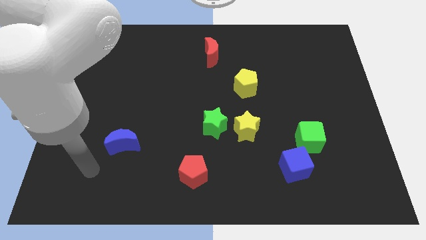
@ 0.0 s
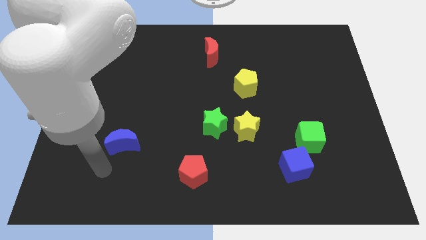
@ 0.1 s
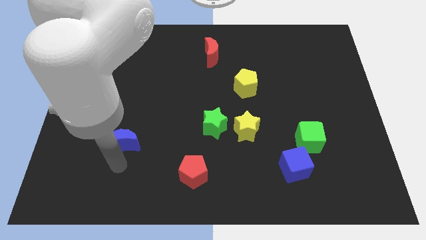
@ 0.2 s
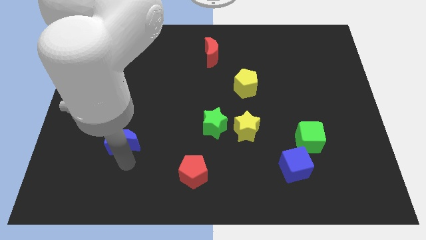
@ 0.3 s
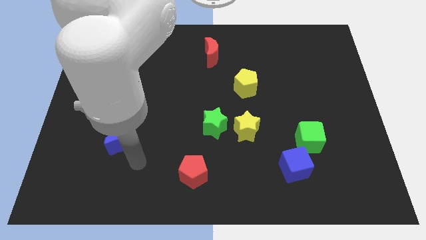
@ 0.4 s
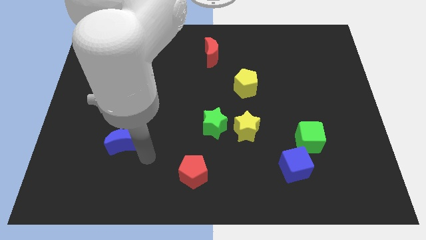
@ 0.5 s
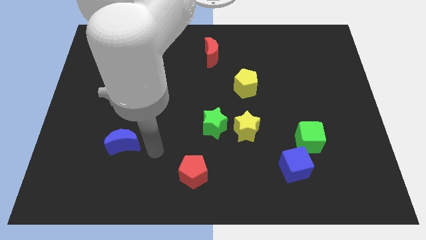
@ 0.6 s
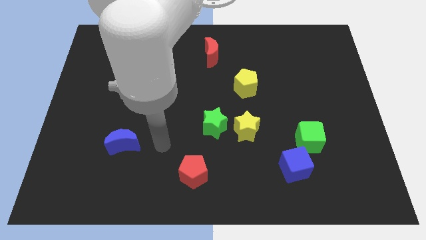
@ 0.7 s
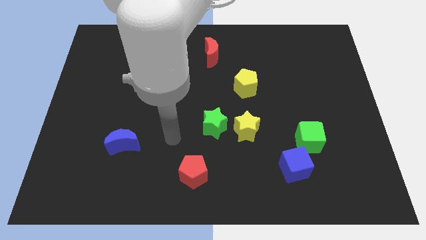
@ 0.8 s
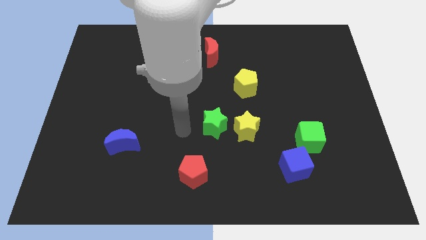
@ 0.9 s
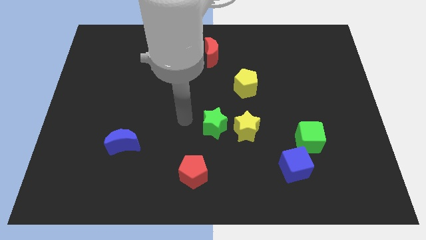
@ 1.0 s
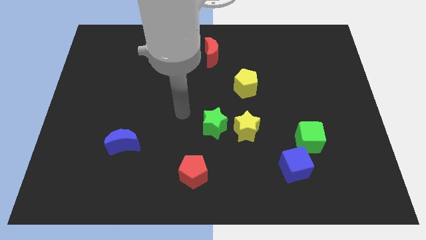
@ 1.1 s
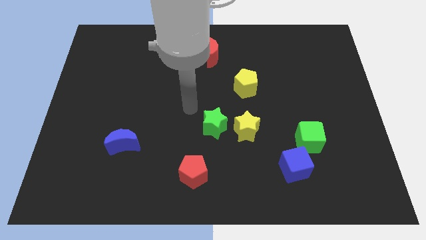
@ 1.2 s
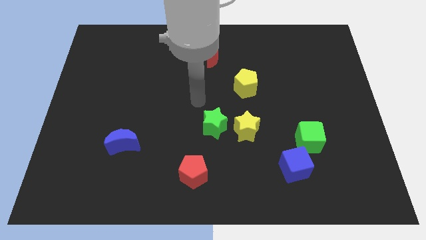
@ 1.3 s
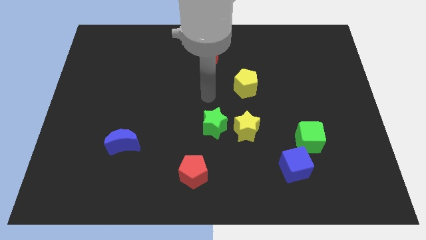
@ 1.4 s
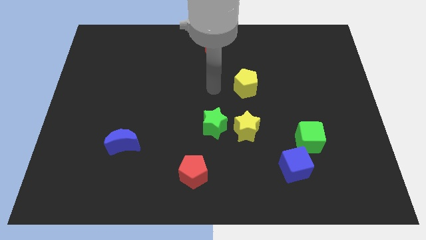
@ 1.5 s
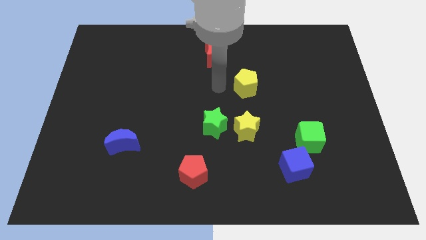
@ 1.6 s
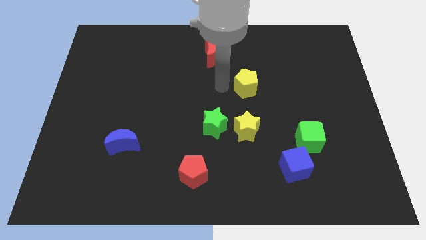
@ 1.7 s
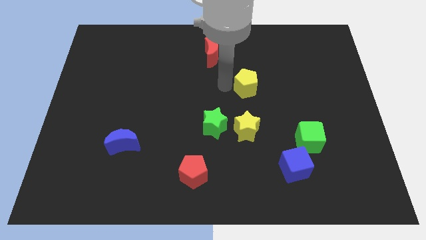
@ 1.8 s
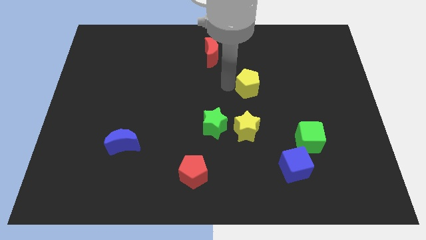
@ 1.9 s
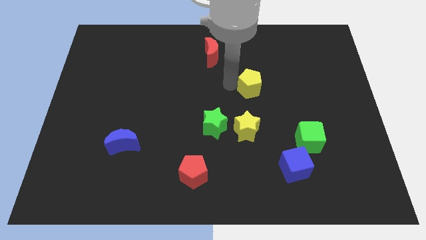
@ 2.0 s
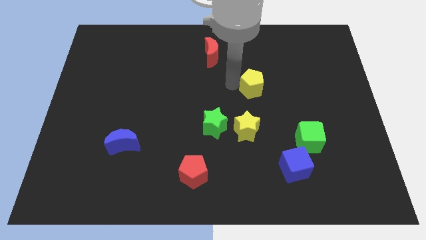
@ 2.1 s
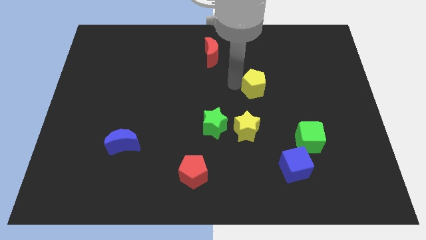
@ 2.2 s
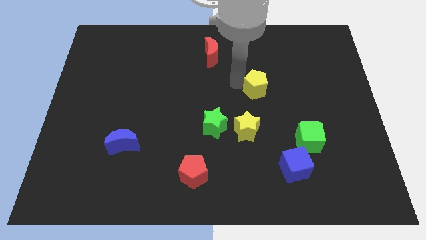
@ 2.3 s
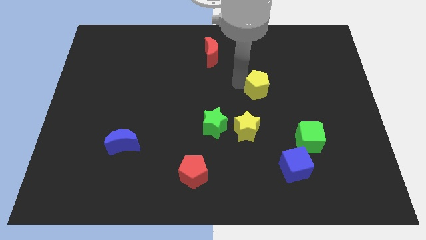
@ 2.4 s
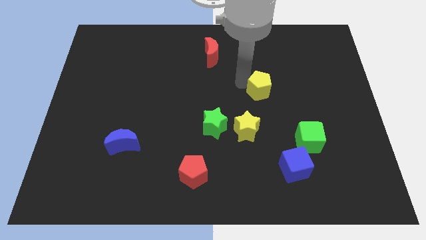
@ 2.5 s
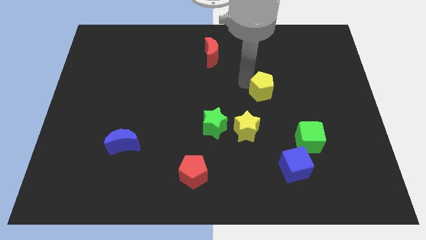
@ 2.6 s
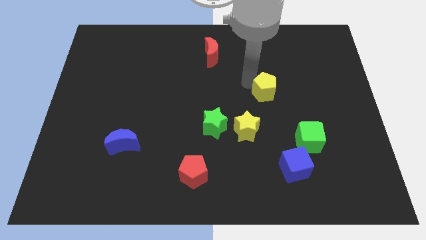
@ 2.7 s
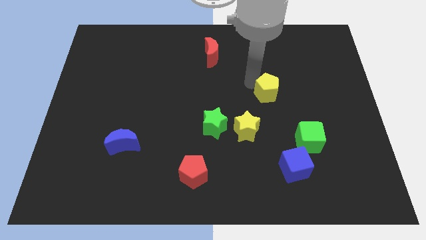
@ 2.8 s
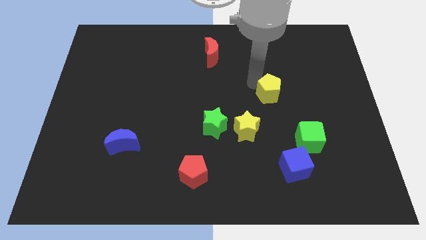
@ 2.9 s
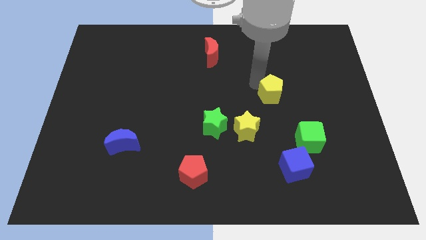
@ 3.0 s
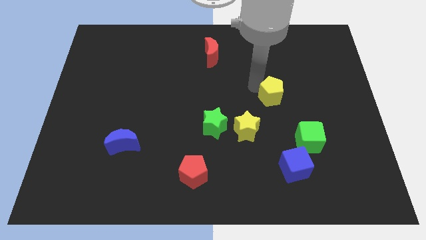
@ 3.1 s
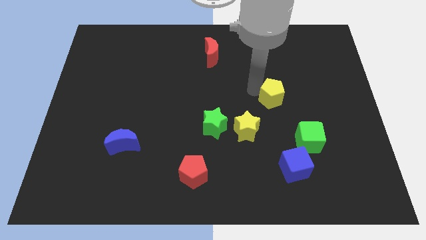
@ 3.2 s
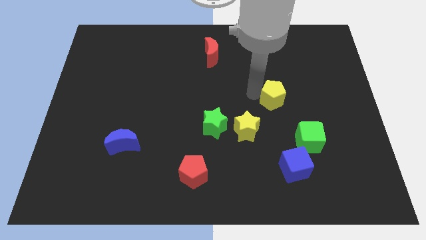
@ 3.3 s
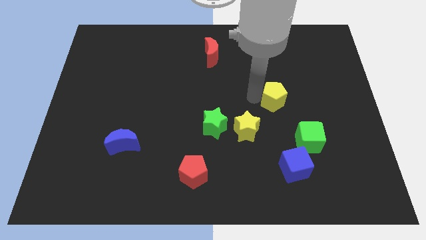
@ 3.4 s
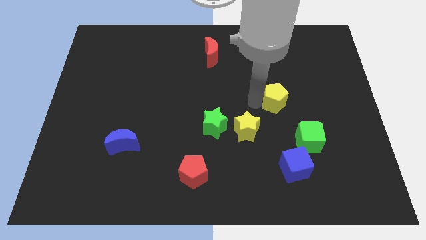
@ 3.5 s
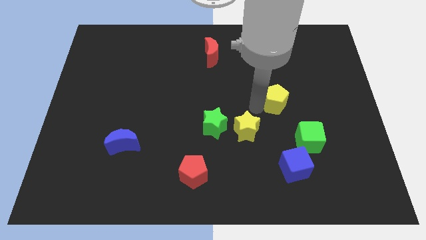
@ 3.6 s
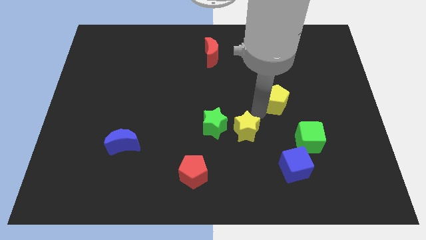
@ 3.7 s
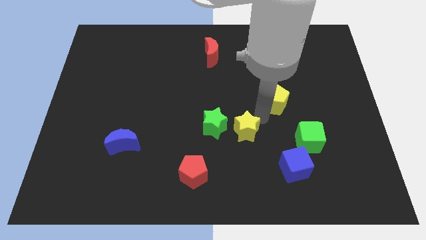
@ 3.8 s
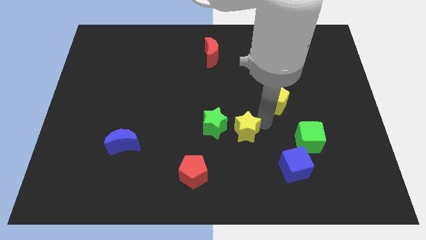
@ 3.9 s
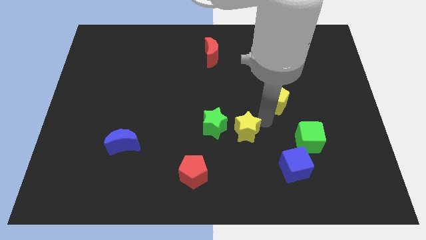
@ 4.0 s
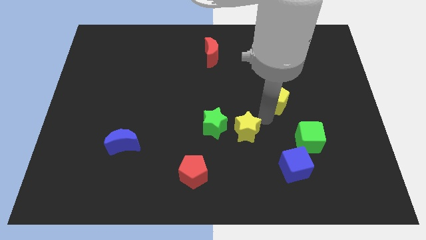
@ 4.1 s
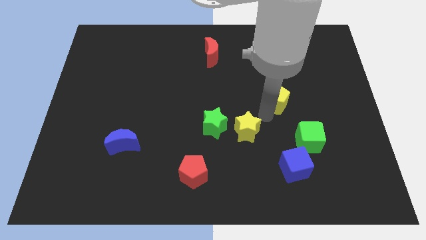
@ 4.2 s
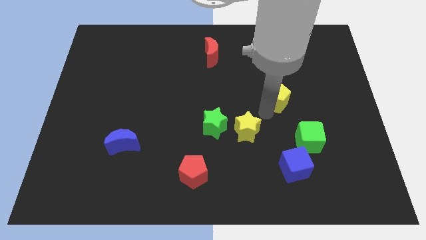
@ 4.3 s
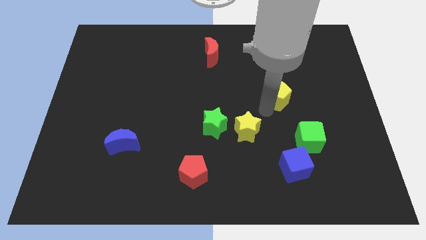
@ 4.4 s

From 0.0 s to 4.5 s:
slightly move the yellow pentagon to the right

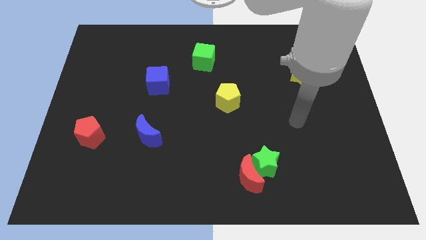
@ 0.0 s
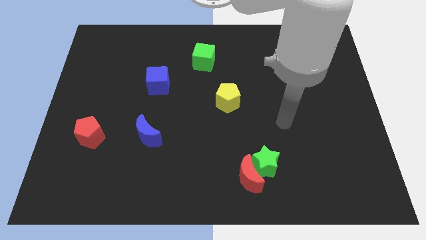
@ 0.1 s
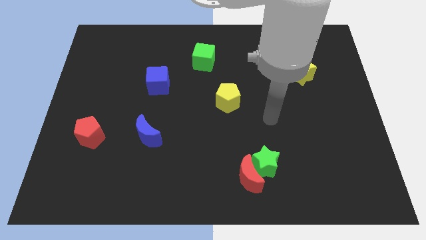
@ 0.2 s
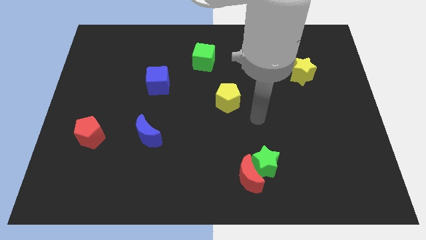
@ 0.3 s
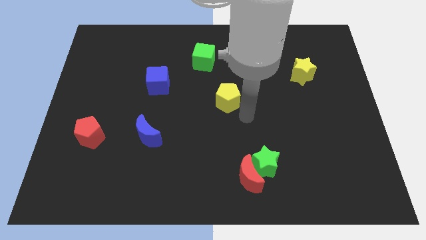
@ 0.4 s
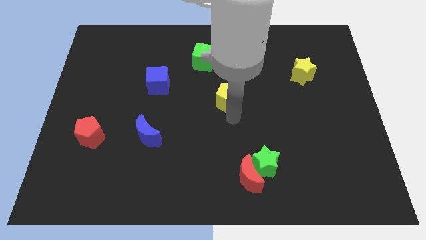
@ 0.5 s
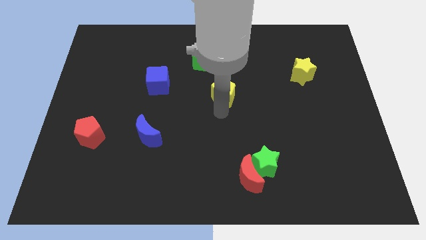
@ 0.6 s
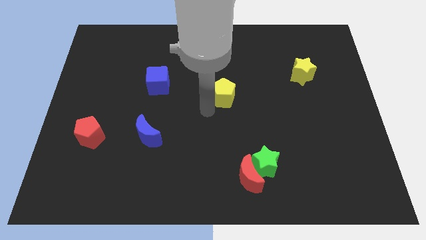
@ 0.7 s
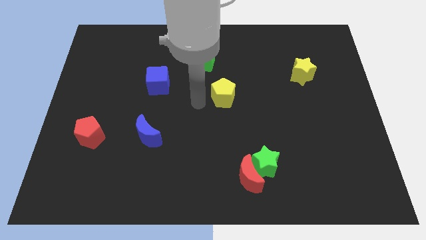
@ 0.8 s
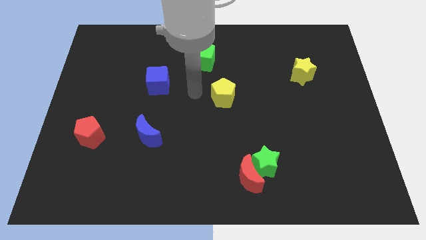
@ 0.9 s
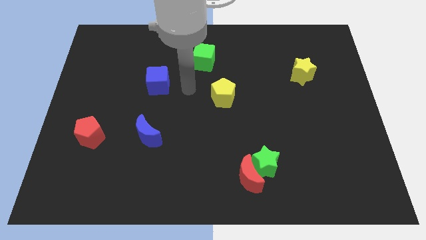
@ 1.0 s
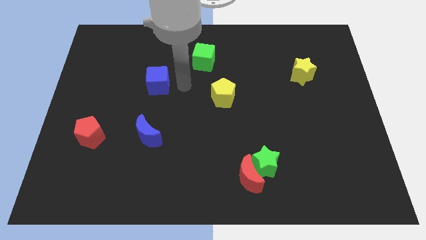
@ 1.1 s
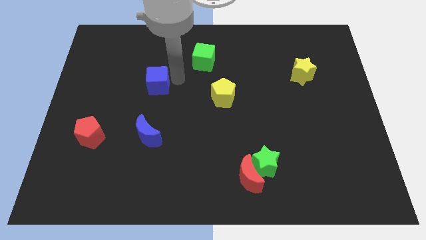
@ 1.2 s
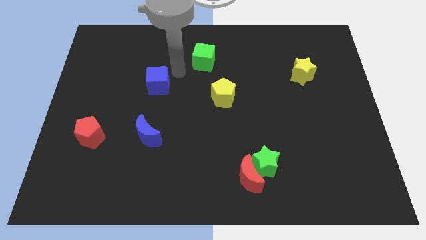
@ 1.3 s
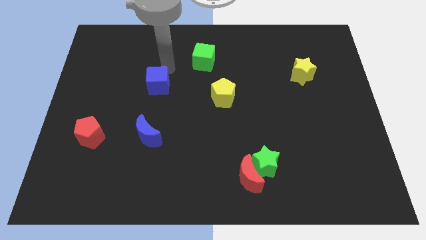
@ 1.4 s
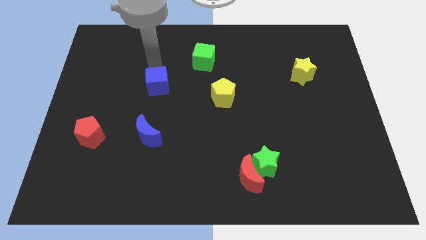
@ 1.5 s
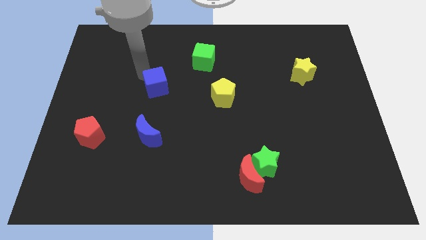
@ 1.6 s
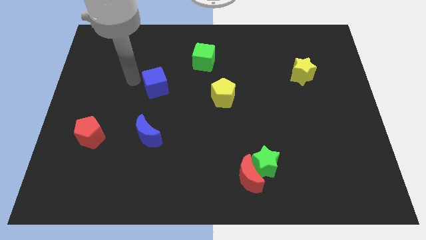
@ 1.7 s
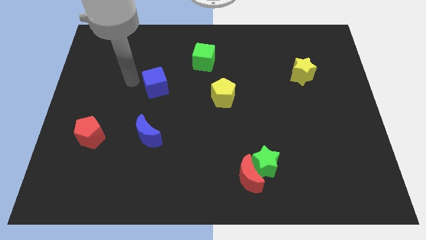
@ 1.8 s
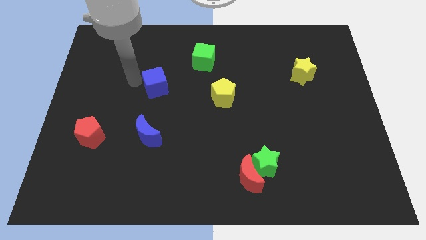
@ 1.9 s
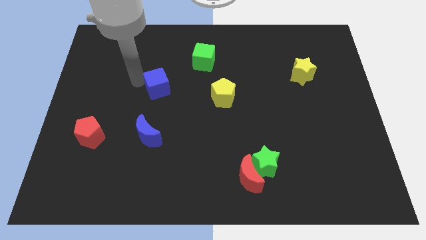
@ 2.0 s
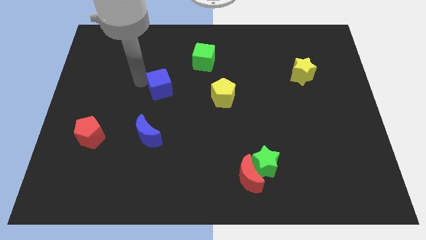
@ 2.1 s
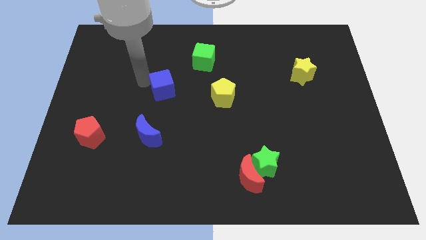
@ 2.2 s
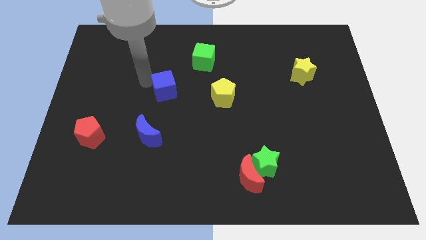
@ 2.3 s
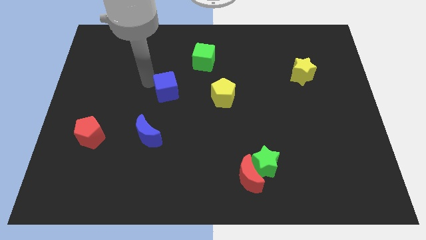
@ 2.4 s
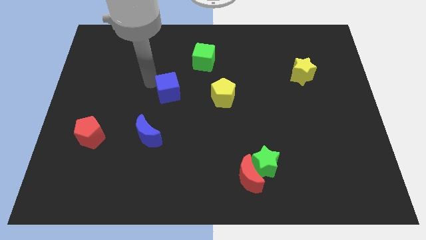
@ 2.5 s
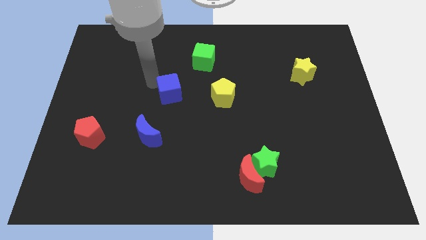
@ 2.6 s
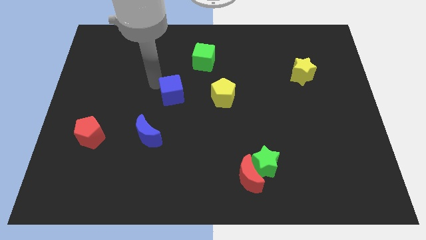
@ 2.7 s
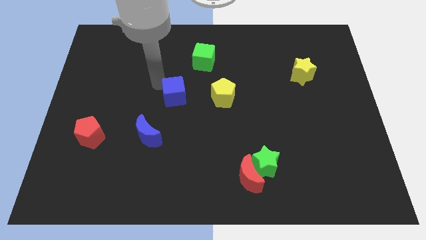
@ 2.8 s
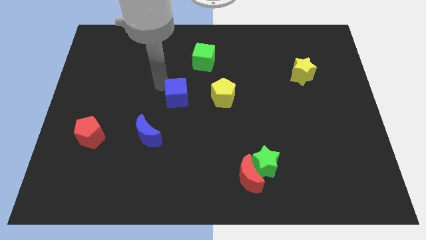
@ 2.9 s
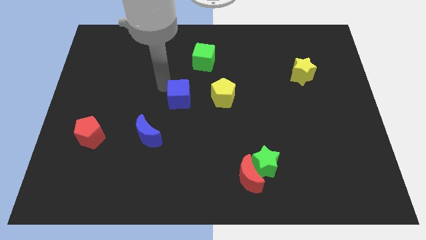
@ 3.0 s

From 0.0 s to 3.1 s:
push the blue cube down and right slightly

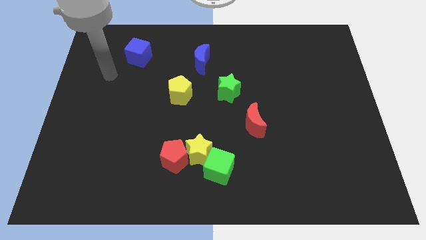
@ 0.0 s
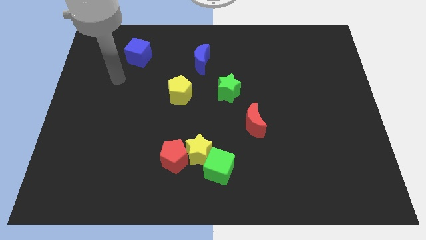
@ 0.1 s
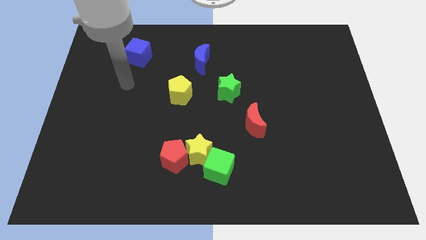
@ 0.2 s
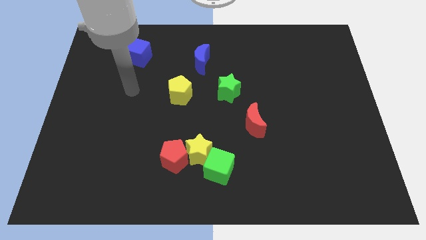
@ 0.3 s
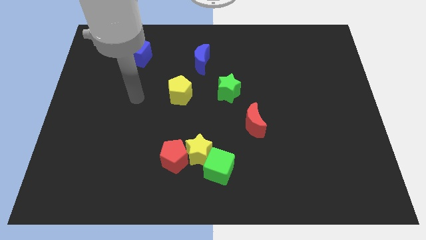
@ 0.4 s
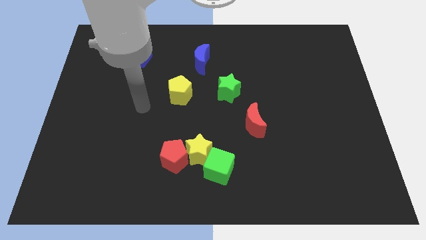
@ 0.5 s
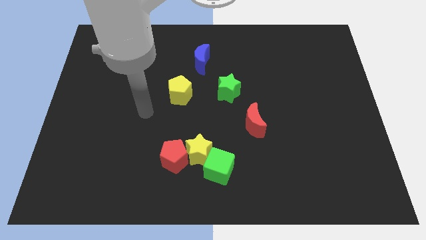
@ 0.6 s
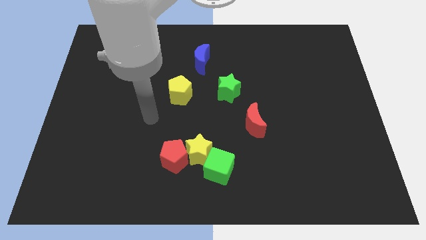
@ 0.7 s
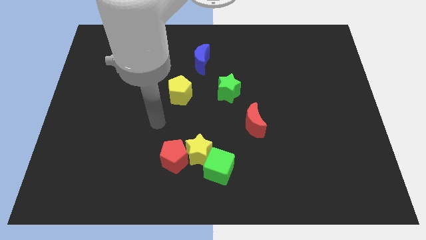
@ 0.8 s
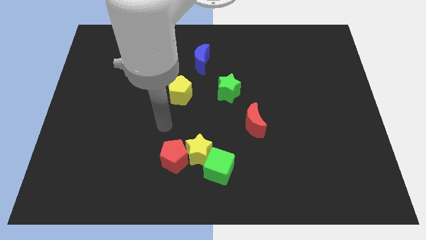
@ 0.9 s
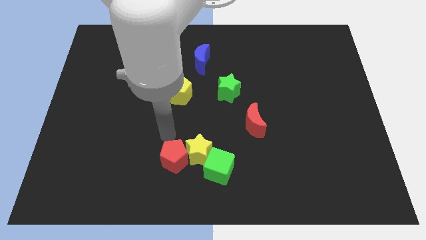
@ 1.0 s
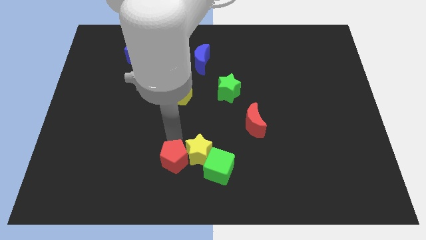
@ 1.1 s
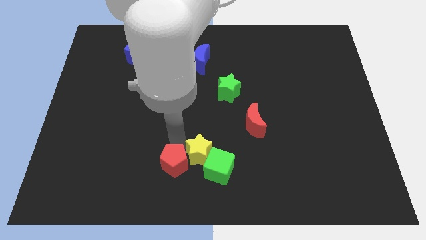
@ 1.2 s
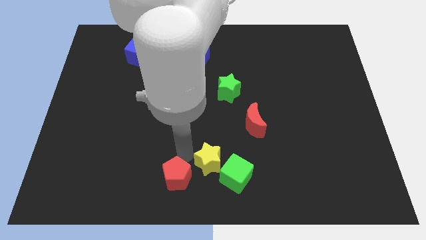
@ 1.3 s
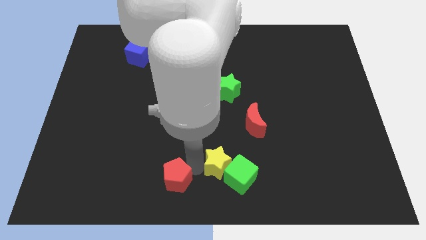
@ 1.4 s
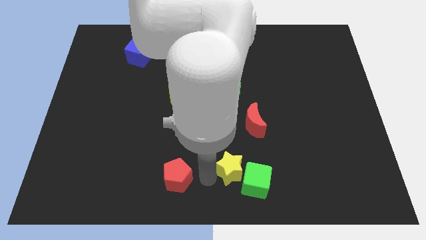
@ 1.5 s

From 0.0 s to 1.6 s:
push the green cube to the right somewhat
